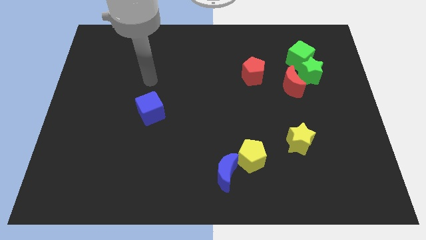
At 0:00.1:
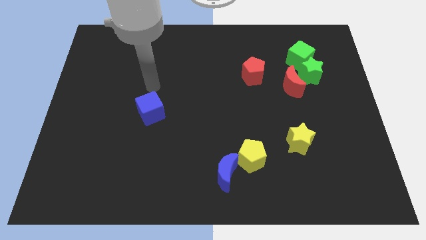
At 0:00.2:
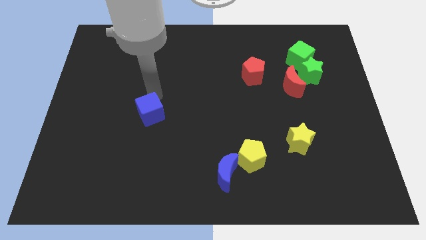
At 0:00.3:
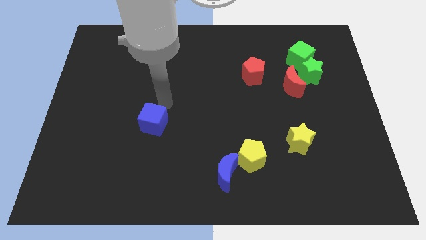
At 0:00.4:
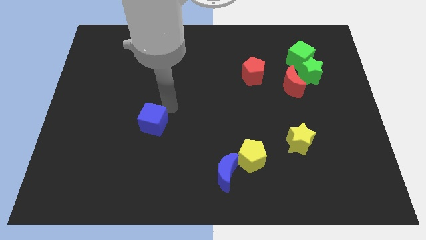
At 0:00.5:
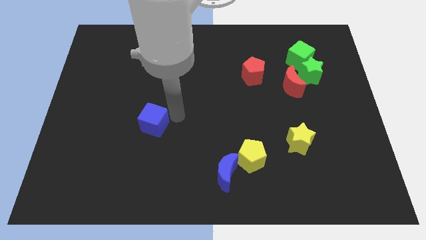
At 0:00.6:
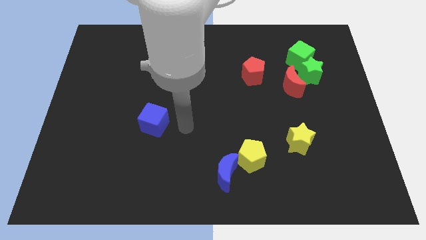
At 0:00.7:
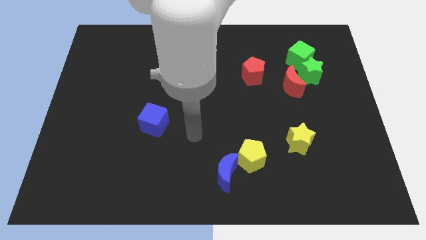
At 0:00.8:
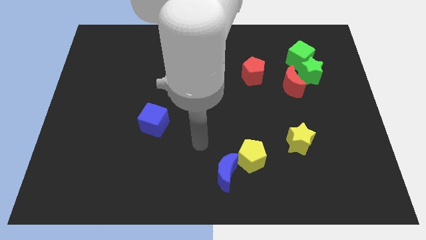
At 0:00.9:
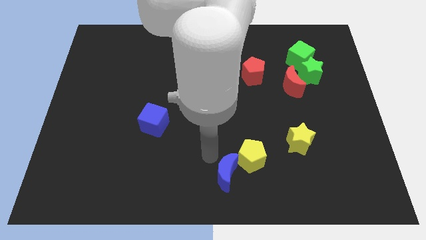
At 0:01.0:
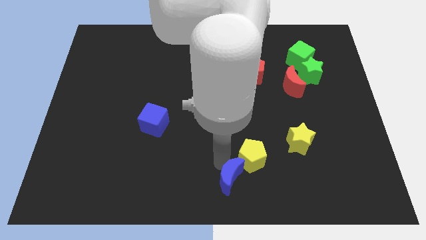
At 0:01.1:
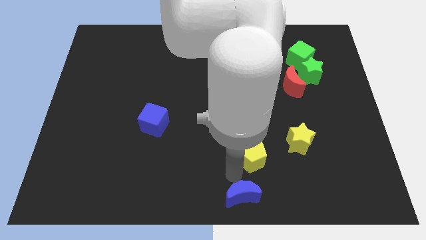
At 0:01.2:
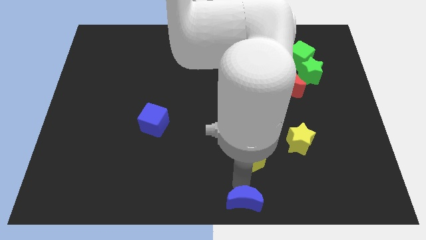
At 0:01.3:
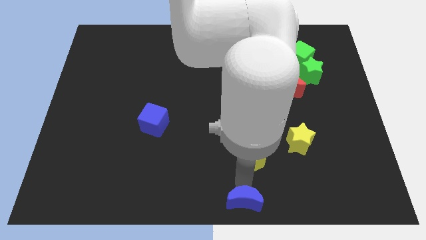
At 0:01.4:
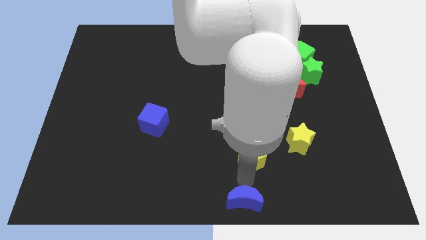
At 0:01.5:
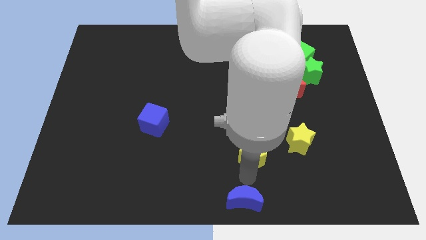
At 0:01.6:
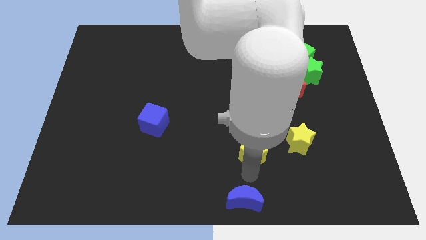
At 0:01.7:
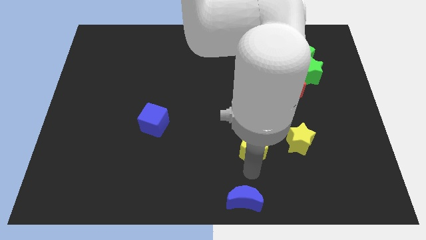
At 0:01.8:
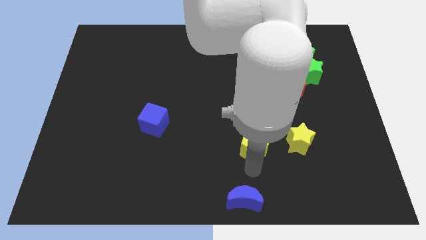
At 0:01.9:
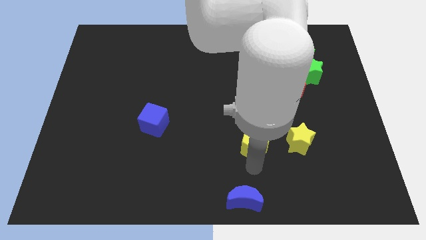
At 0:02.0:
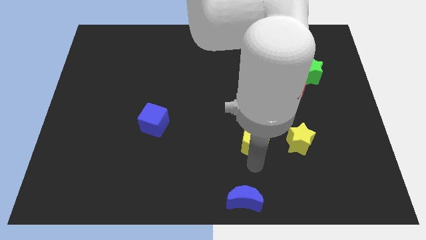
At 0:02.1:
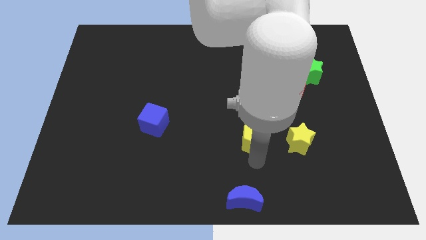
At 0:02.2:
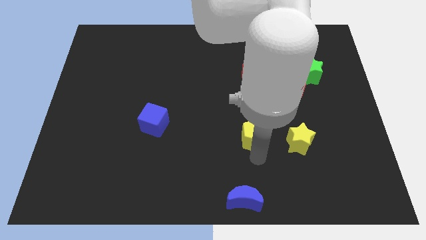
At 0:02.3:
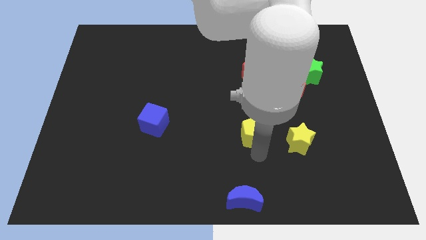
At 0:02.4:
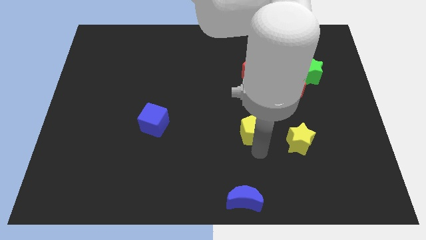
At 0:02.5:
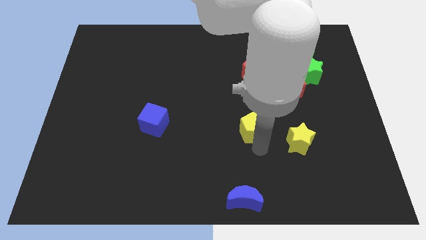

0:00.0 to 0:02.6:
push the yellow pentagon upwards slightly

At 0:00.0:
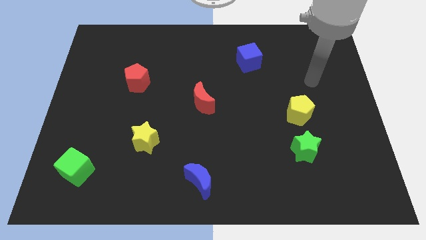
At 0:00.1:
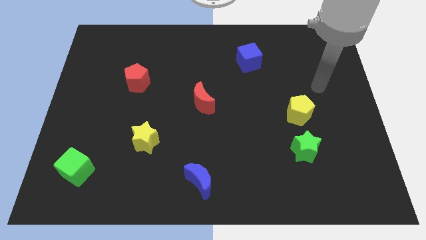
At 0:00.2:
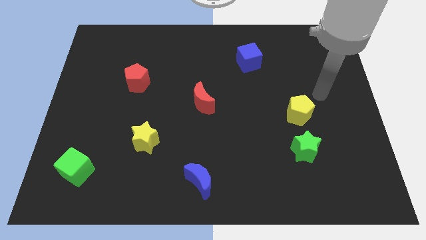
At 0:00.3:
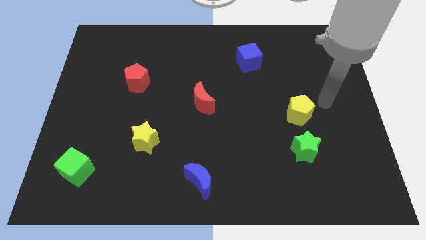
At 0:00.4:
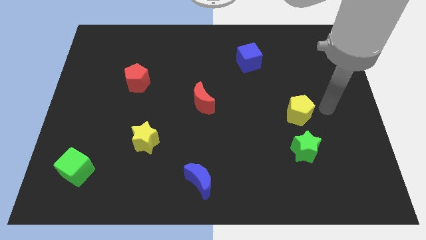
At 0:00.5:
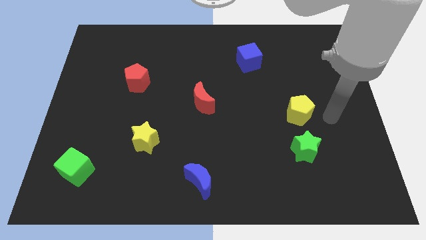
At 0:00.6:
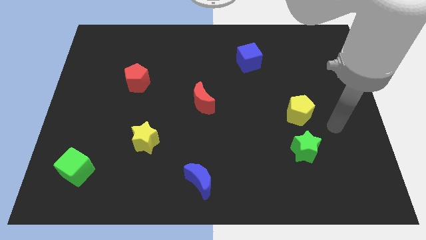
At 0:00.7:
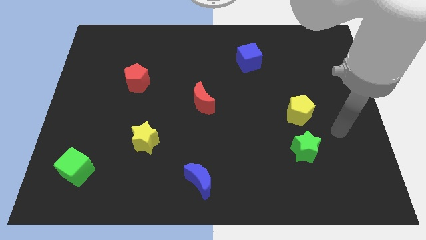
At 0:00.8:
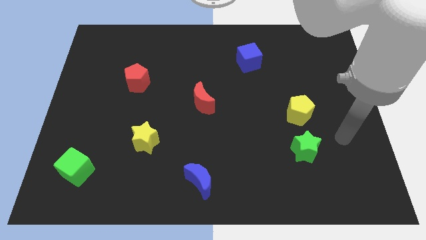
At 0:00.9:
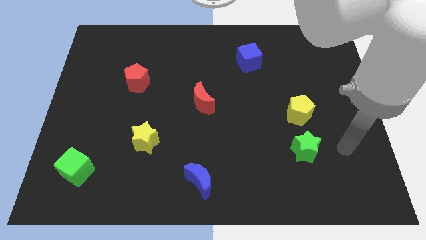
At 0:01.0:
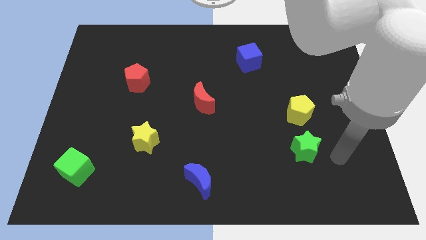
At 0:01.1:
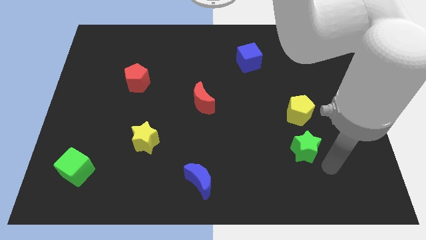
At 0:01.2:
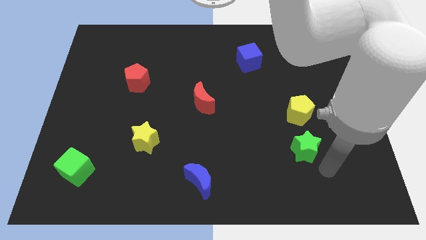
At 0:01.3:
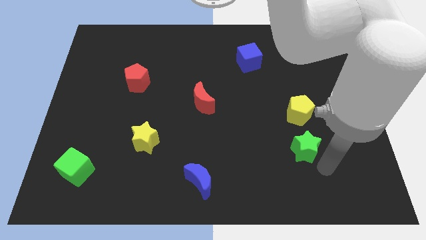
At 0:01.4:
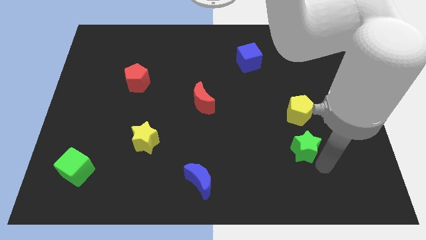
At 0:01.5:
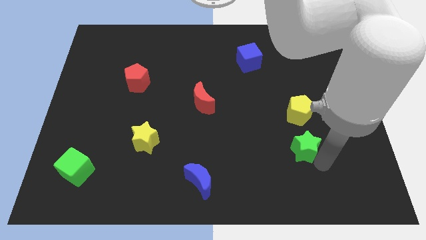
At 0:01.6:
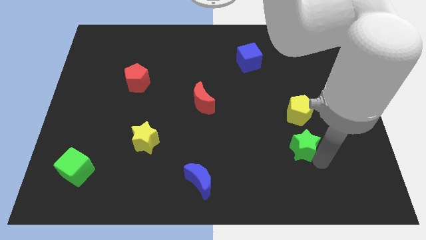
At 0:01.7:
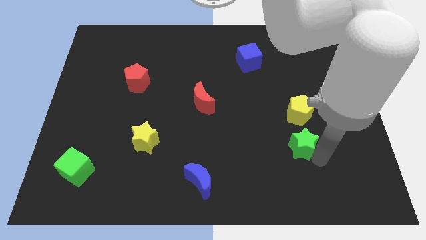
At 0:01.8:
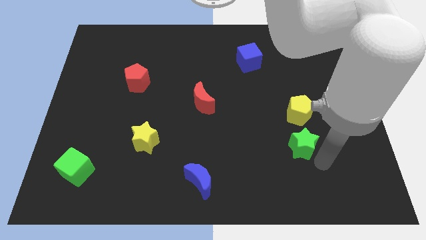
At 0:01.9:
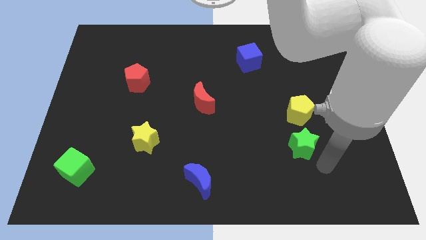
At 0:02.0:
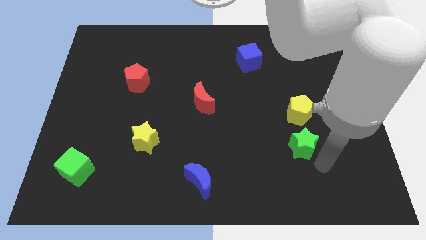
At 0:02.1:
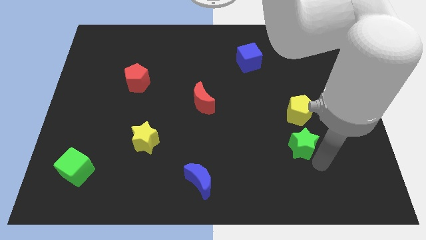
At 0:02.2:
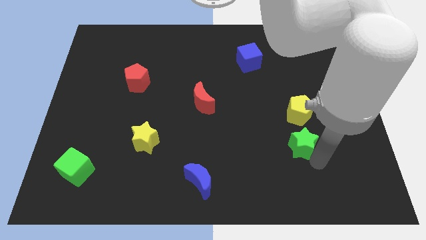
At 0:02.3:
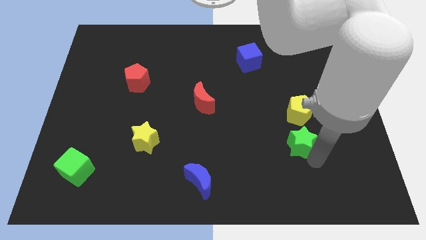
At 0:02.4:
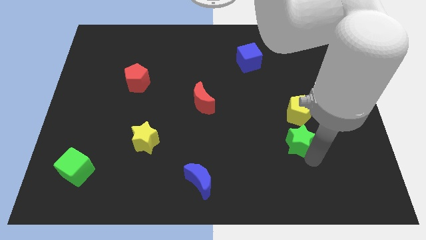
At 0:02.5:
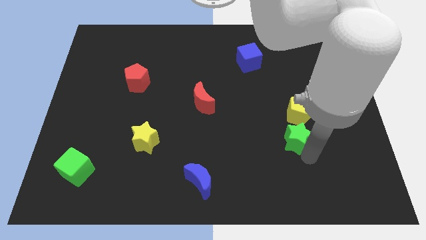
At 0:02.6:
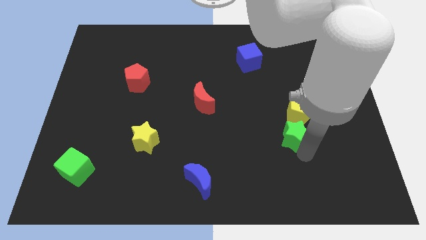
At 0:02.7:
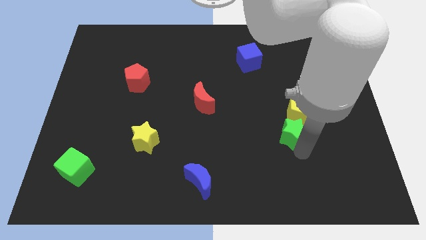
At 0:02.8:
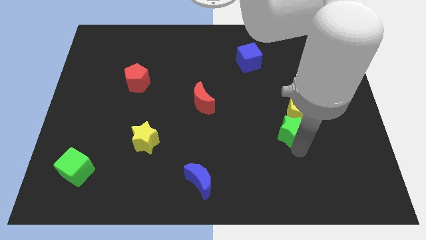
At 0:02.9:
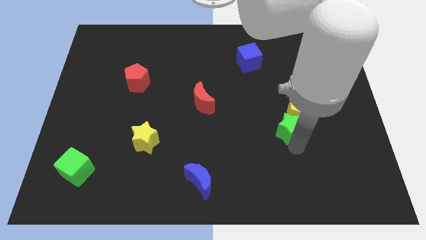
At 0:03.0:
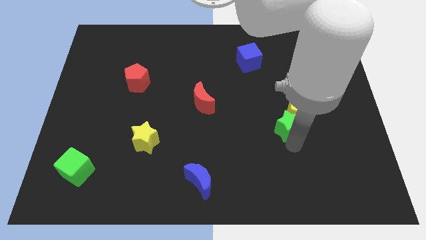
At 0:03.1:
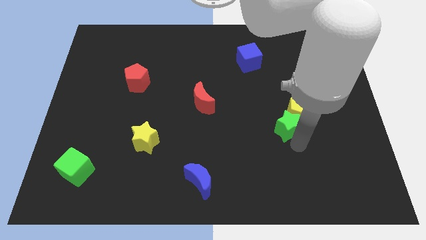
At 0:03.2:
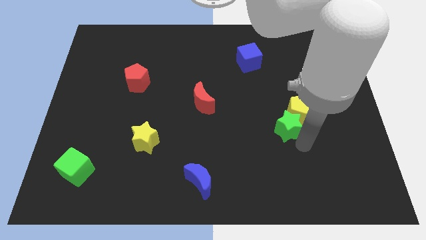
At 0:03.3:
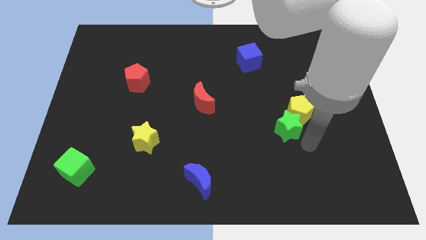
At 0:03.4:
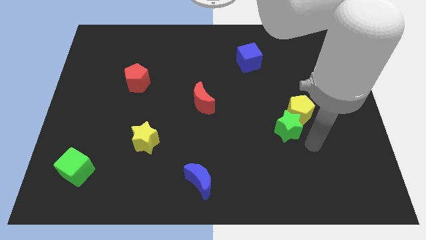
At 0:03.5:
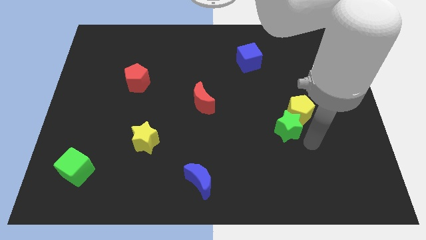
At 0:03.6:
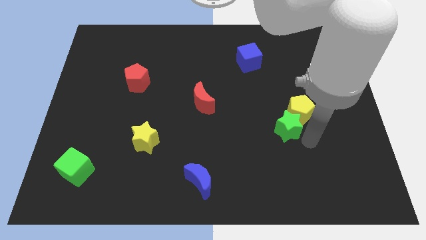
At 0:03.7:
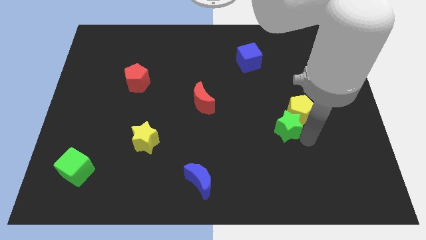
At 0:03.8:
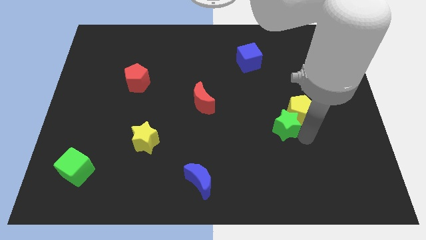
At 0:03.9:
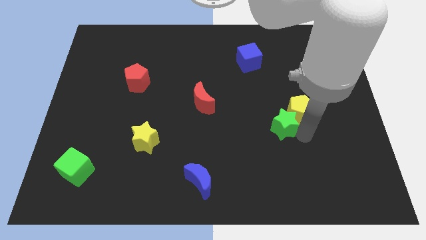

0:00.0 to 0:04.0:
move the green star a little bit up and left diagonally

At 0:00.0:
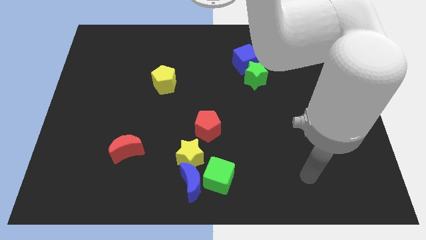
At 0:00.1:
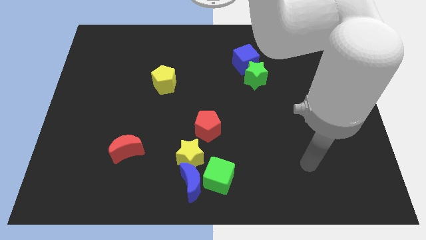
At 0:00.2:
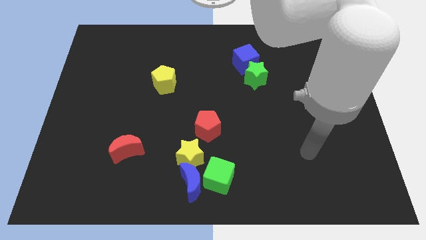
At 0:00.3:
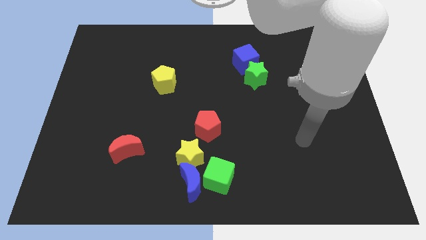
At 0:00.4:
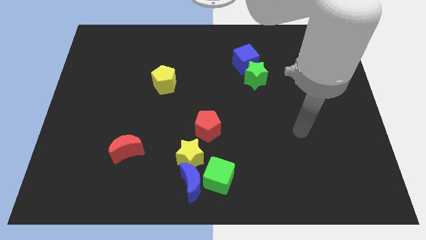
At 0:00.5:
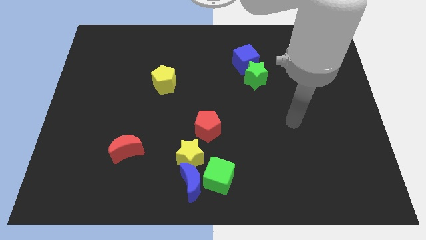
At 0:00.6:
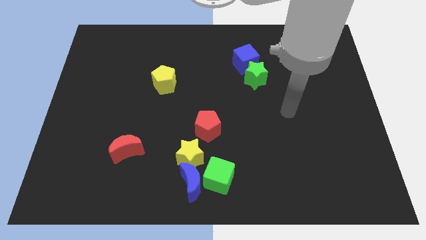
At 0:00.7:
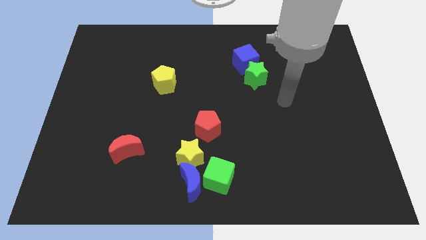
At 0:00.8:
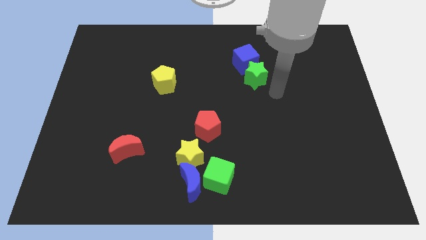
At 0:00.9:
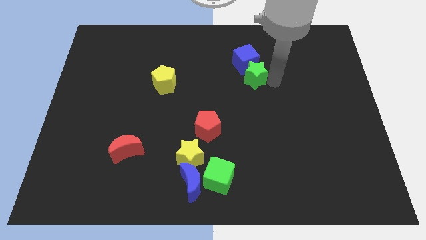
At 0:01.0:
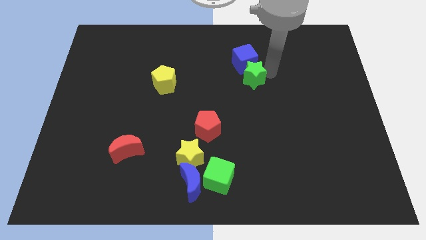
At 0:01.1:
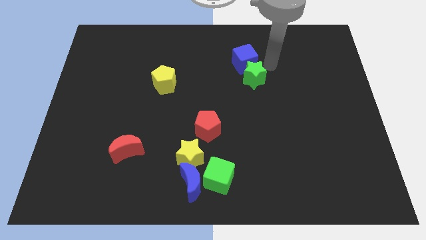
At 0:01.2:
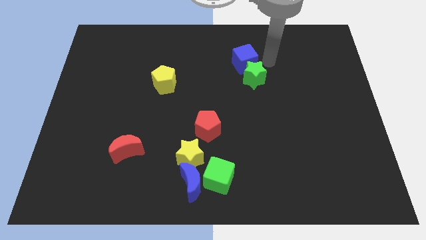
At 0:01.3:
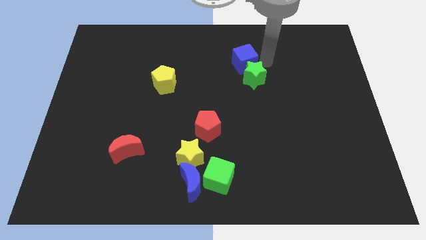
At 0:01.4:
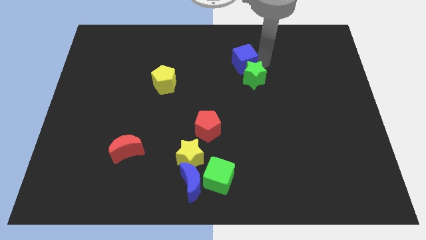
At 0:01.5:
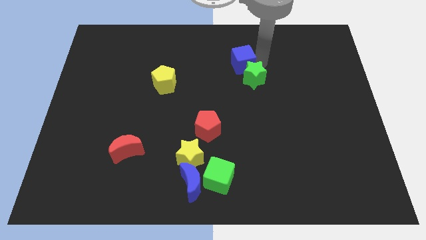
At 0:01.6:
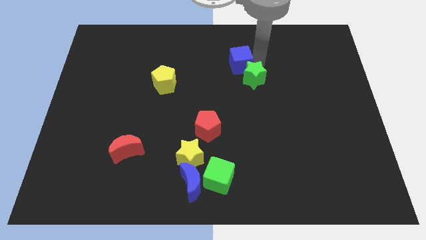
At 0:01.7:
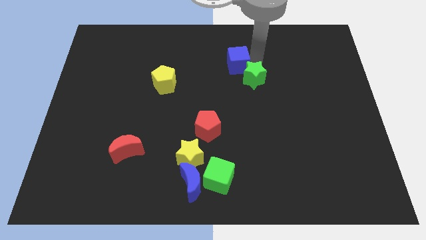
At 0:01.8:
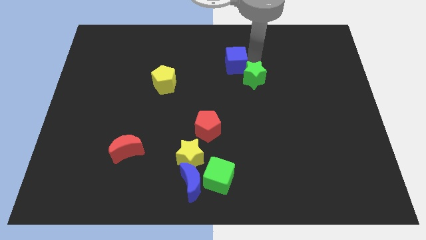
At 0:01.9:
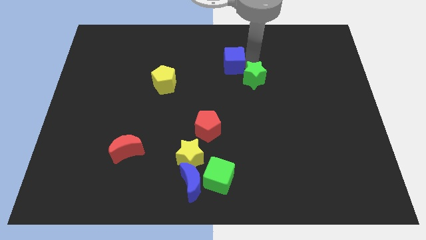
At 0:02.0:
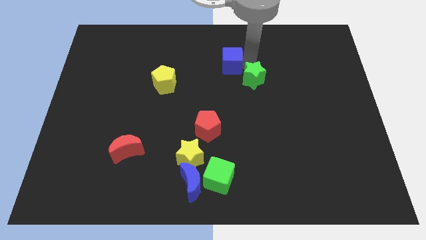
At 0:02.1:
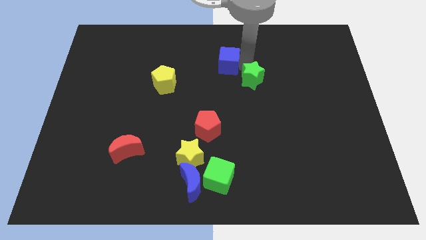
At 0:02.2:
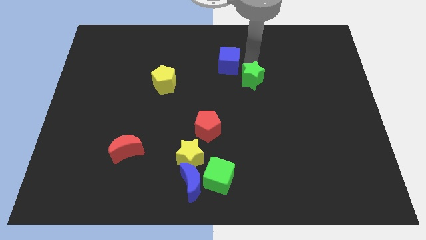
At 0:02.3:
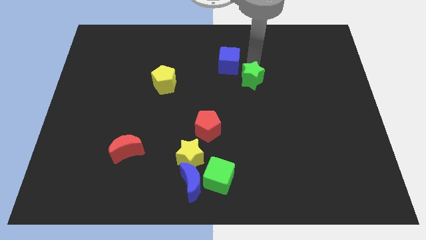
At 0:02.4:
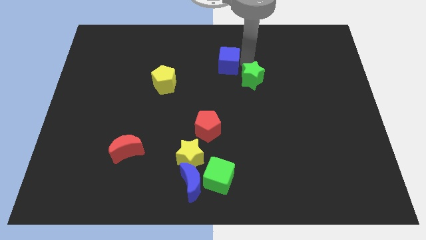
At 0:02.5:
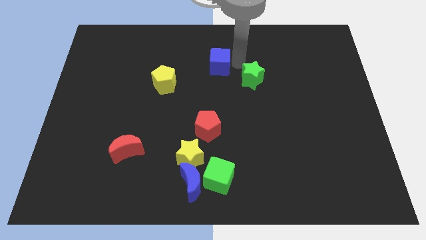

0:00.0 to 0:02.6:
slightly slide the blue cube left
